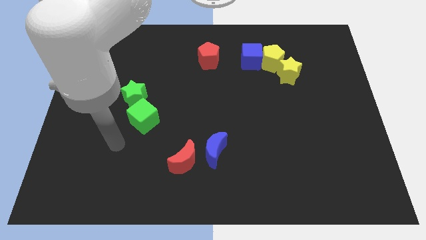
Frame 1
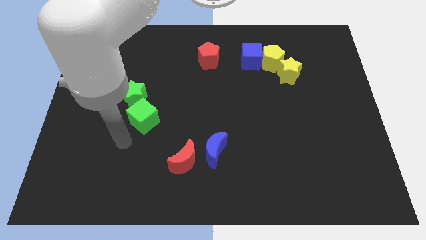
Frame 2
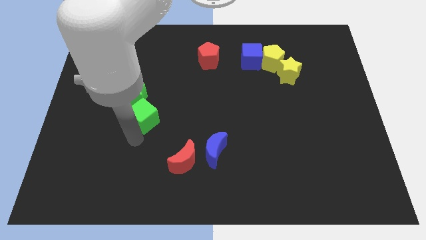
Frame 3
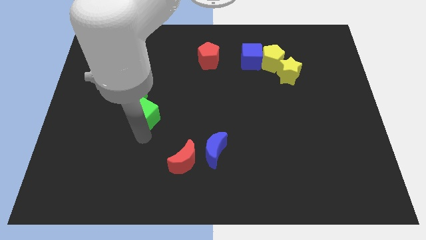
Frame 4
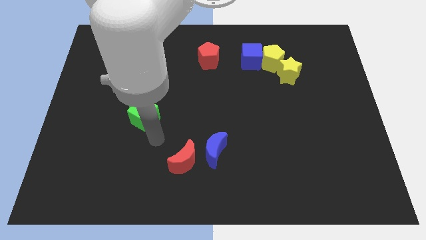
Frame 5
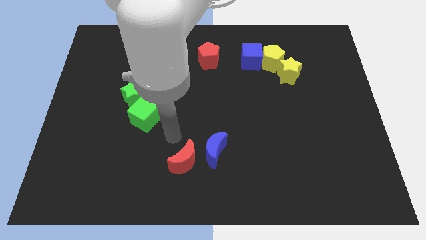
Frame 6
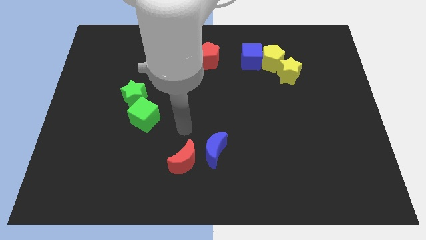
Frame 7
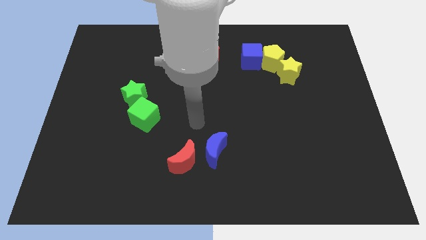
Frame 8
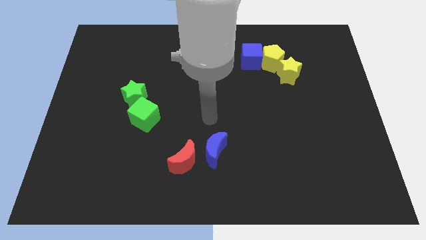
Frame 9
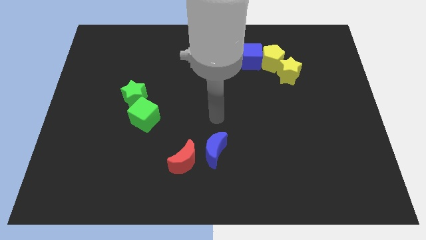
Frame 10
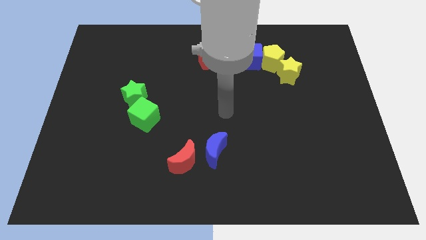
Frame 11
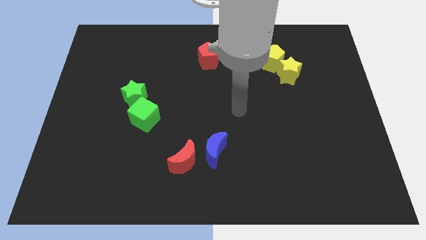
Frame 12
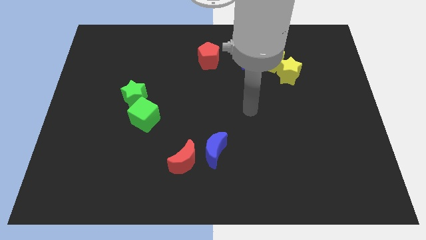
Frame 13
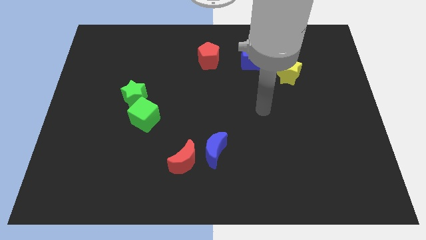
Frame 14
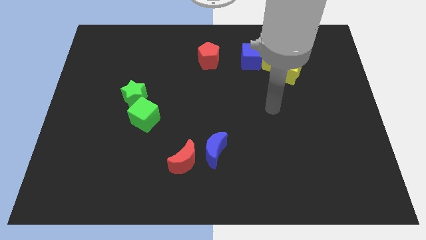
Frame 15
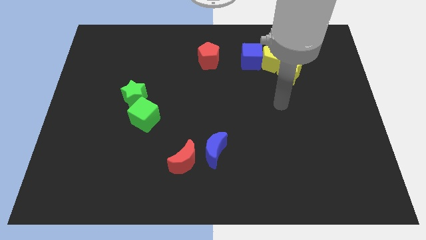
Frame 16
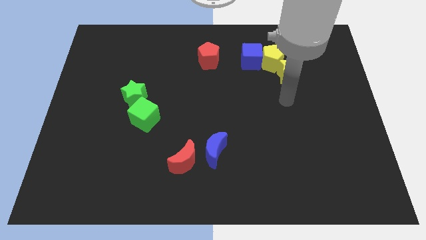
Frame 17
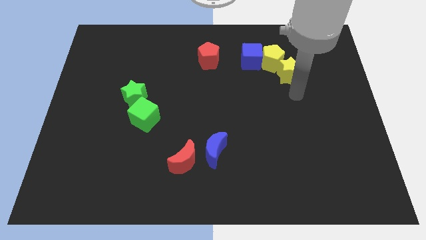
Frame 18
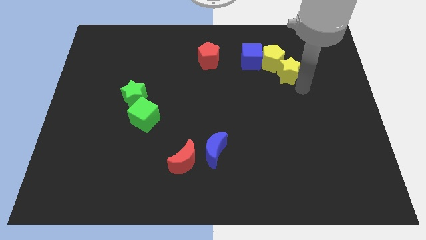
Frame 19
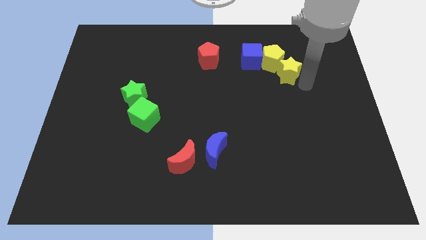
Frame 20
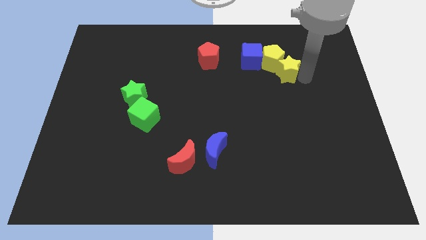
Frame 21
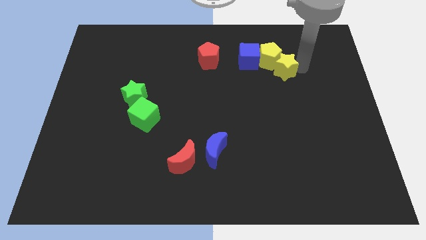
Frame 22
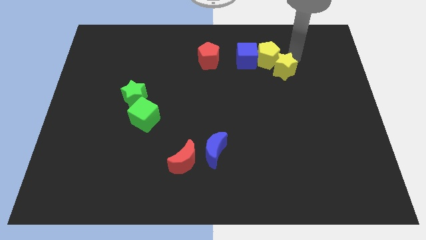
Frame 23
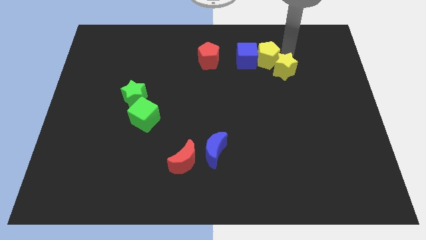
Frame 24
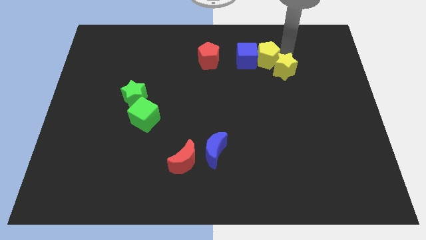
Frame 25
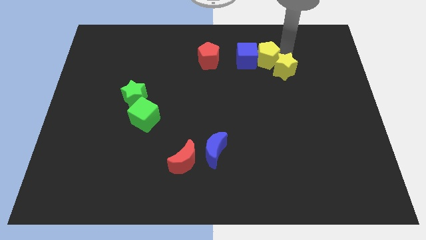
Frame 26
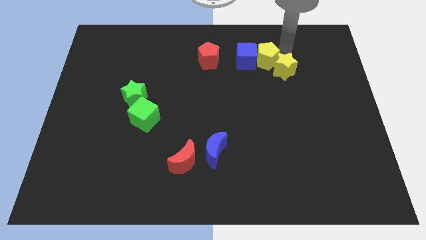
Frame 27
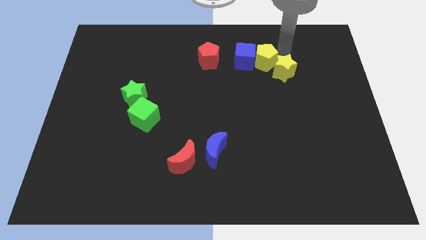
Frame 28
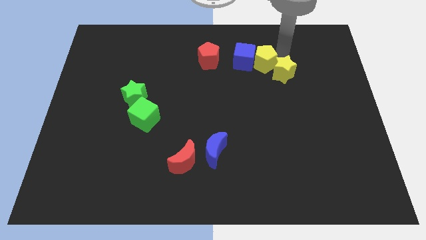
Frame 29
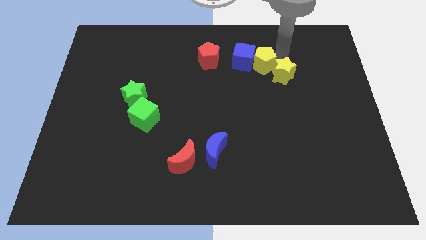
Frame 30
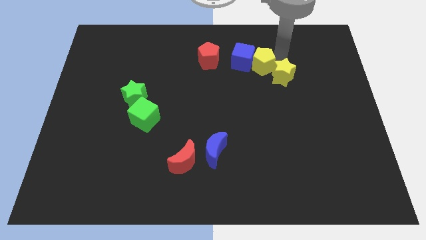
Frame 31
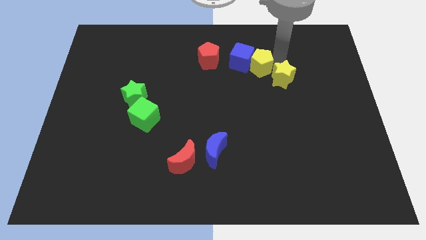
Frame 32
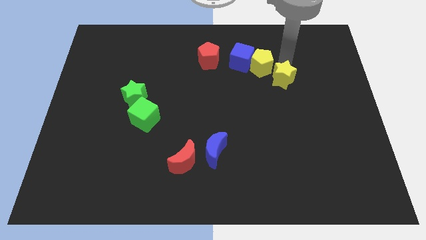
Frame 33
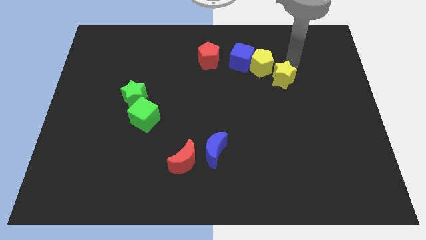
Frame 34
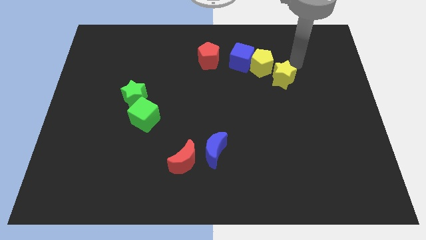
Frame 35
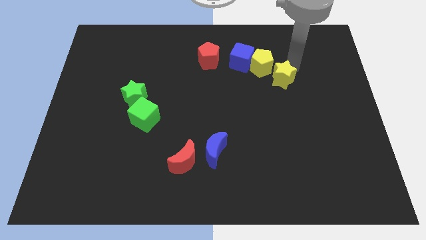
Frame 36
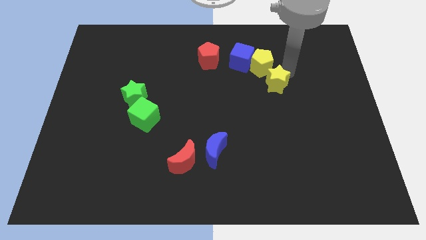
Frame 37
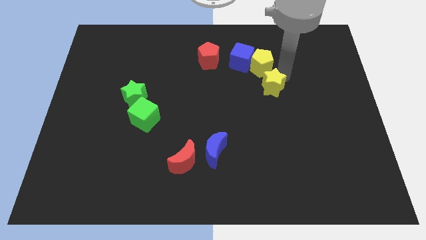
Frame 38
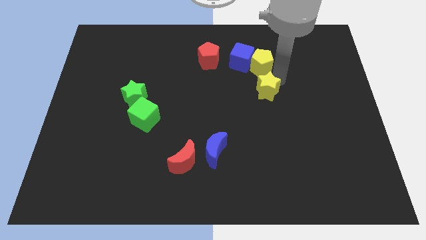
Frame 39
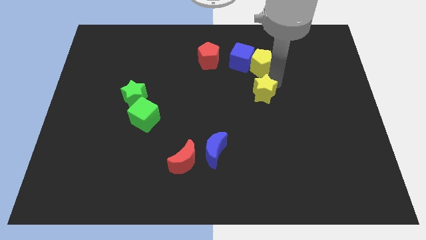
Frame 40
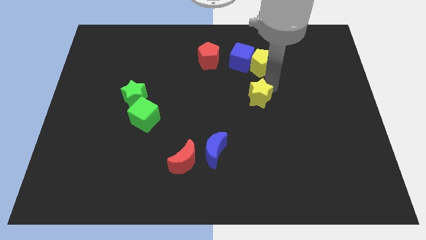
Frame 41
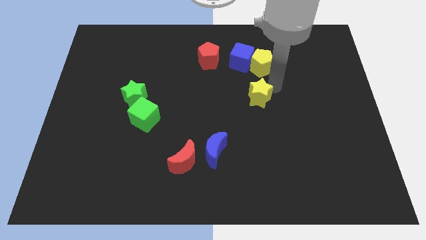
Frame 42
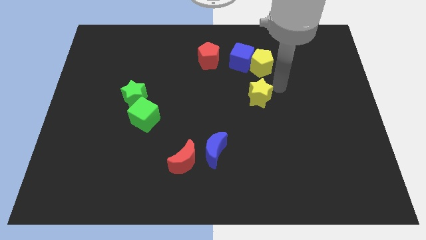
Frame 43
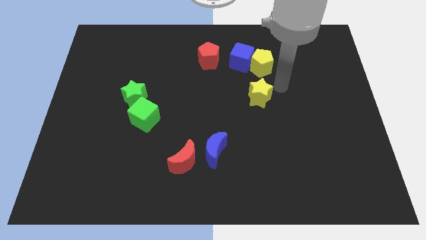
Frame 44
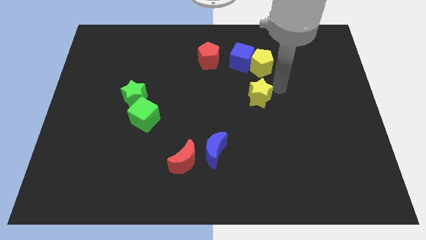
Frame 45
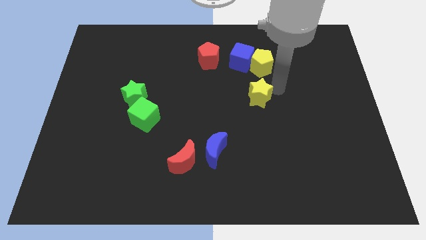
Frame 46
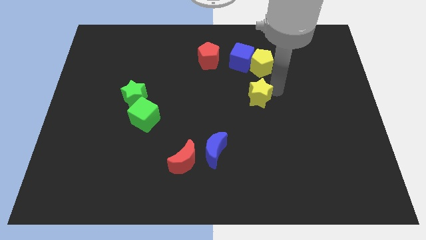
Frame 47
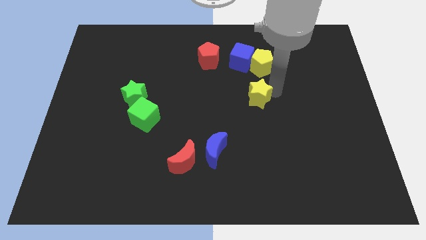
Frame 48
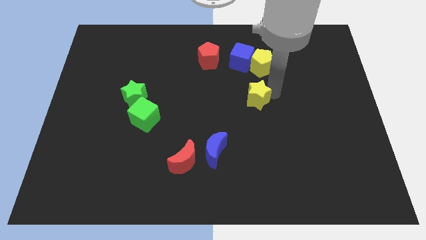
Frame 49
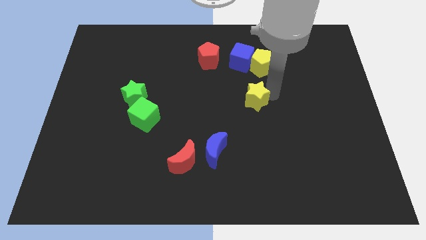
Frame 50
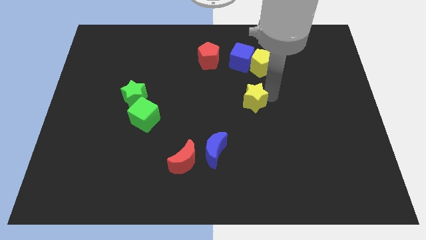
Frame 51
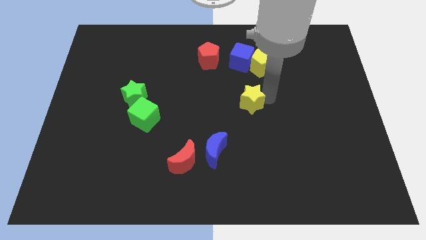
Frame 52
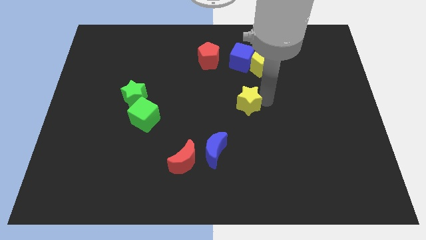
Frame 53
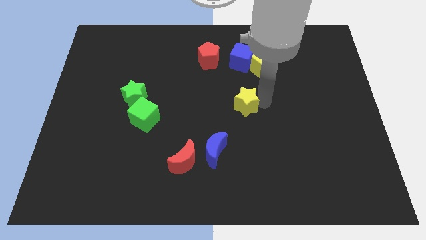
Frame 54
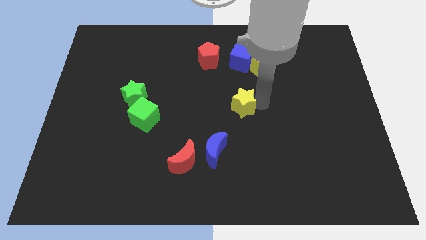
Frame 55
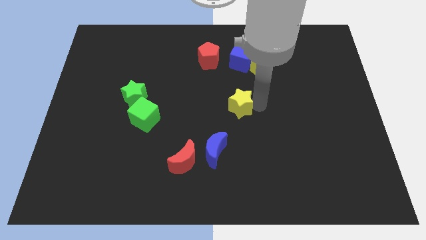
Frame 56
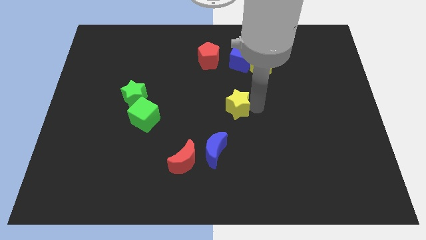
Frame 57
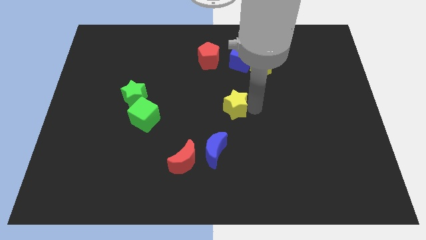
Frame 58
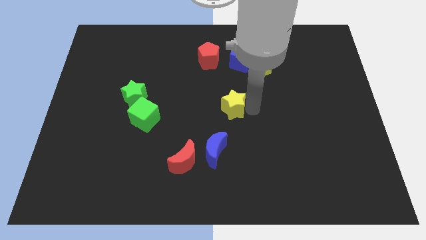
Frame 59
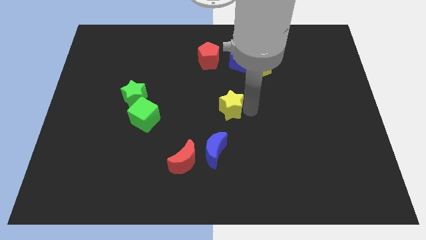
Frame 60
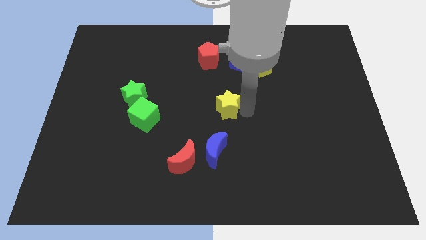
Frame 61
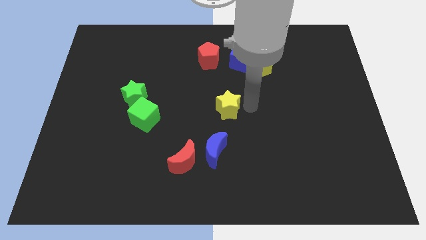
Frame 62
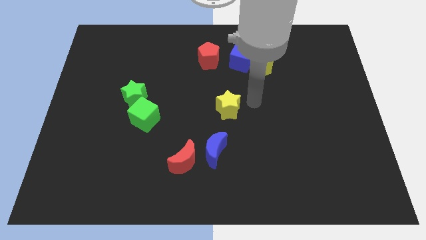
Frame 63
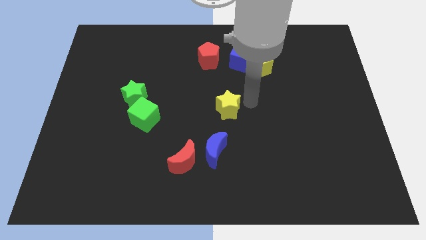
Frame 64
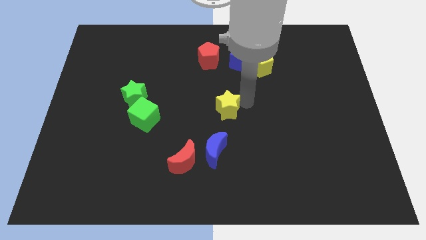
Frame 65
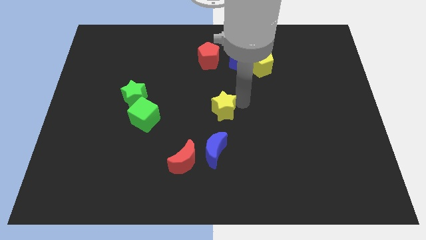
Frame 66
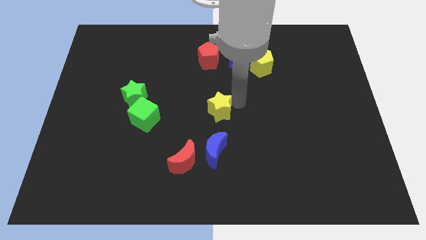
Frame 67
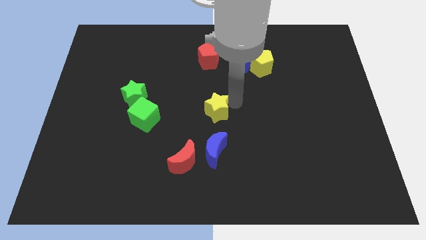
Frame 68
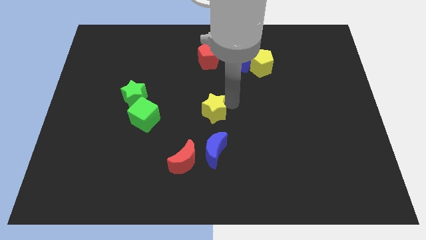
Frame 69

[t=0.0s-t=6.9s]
slide the yellow star to the right of the green cube

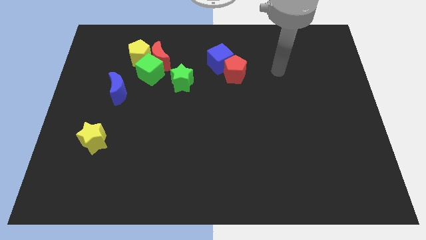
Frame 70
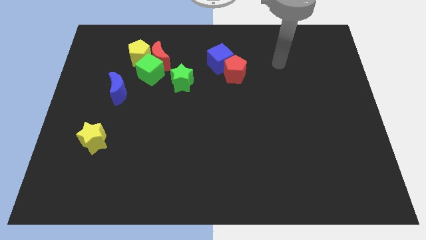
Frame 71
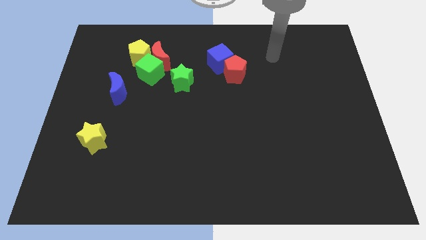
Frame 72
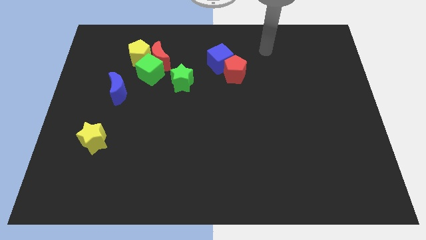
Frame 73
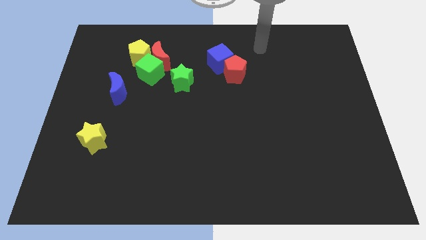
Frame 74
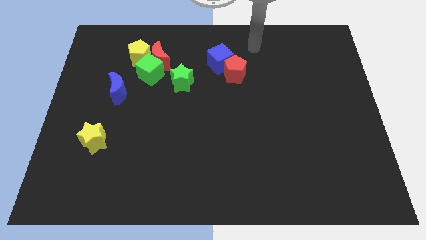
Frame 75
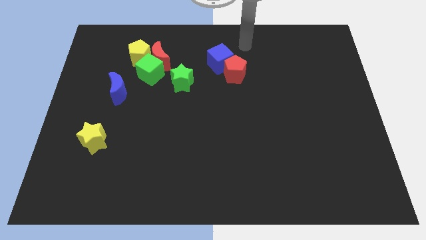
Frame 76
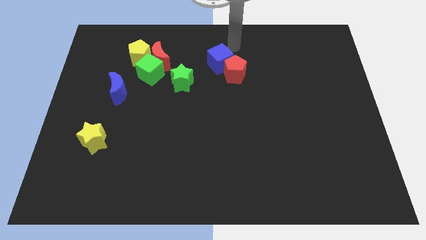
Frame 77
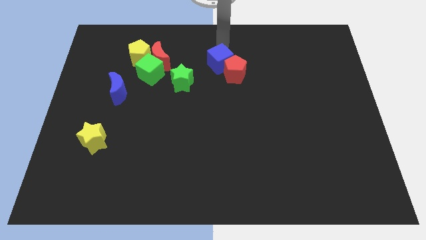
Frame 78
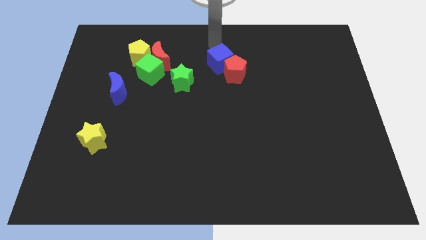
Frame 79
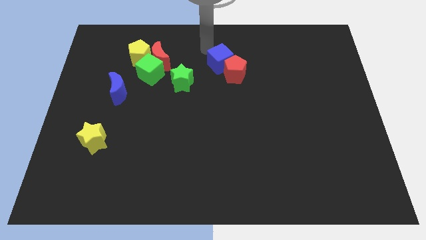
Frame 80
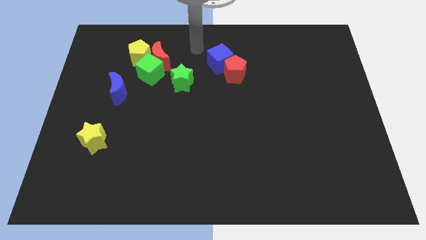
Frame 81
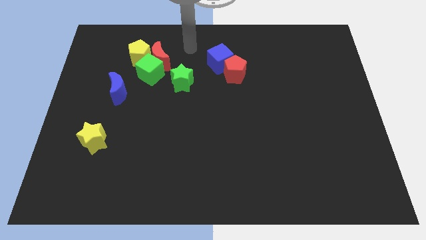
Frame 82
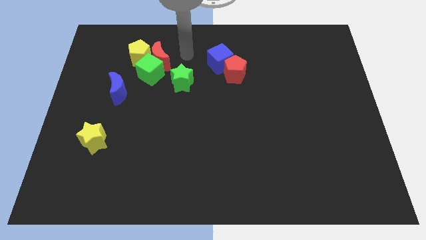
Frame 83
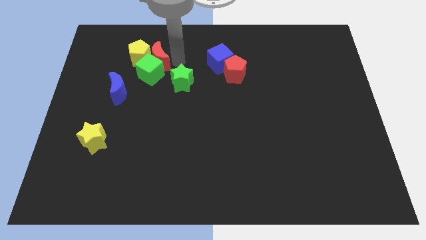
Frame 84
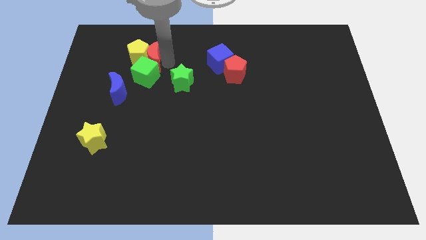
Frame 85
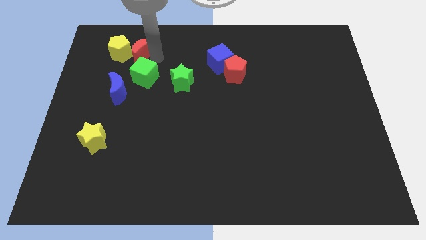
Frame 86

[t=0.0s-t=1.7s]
push the green cube to the right side of the blue moon
